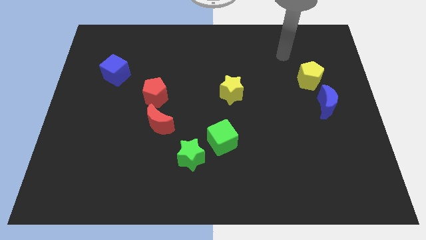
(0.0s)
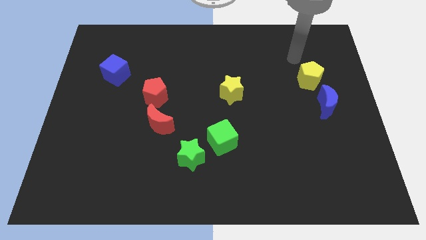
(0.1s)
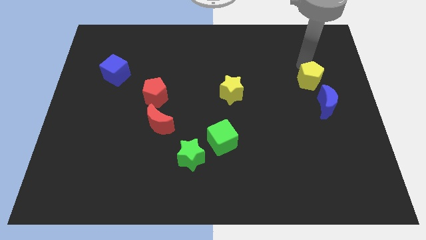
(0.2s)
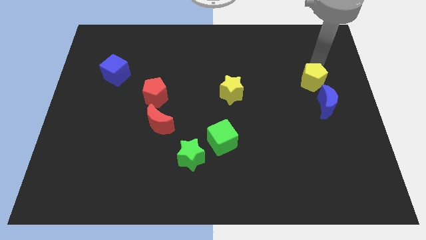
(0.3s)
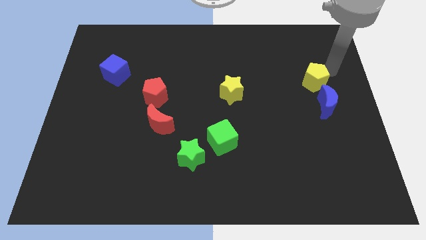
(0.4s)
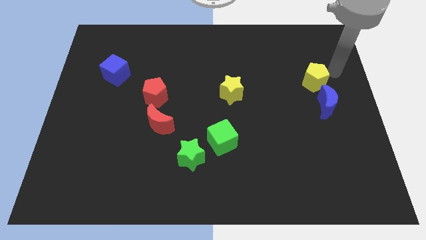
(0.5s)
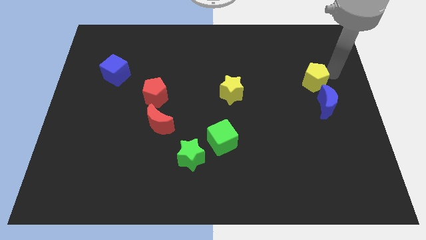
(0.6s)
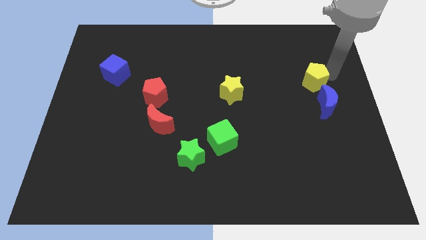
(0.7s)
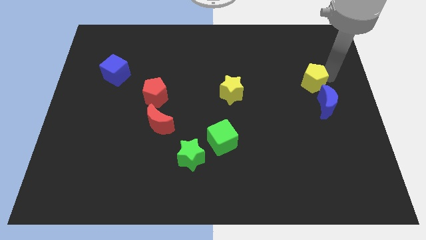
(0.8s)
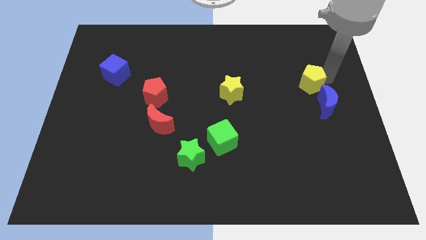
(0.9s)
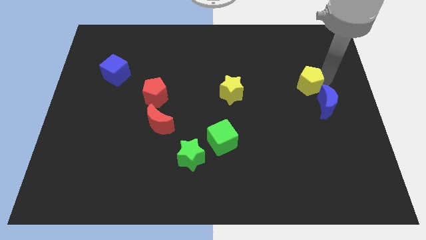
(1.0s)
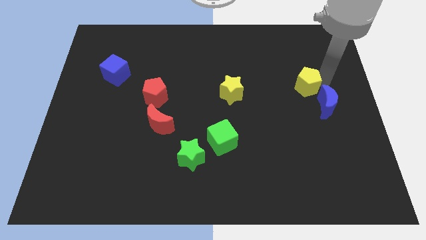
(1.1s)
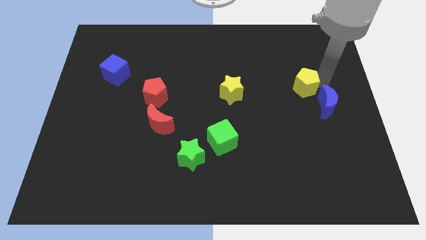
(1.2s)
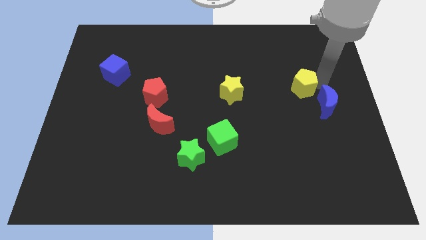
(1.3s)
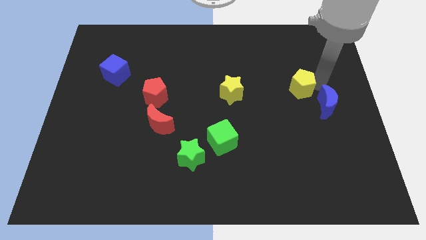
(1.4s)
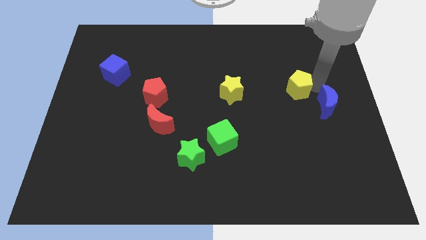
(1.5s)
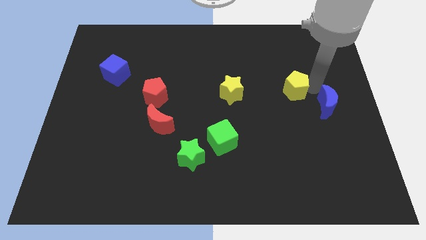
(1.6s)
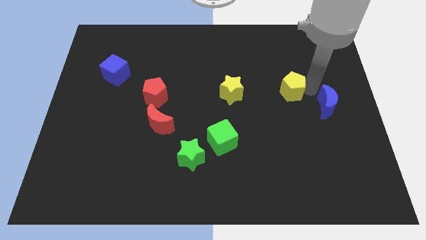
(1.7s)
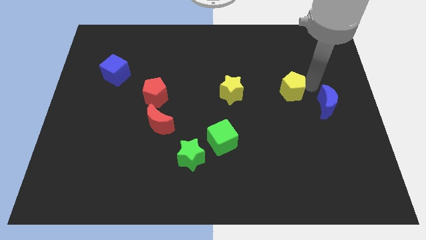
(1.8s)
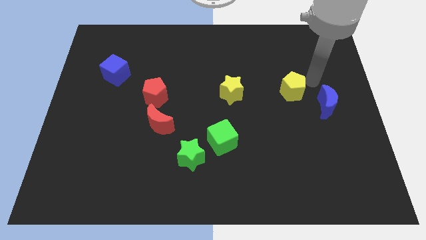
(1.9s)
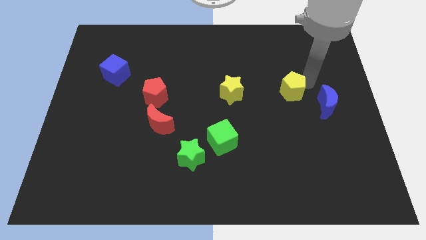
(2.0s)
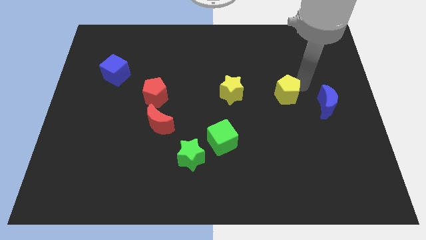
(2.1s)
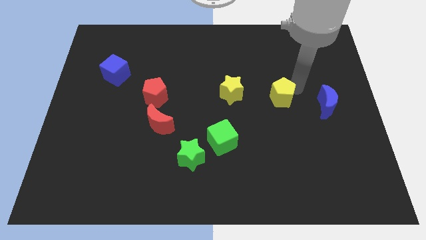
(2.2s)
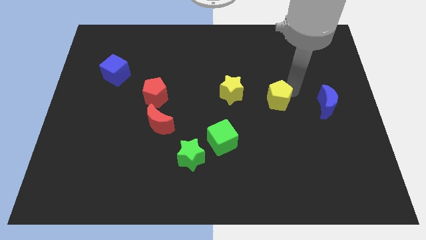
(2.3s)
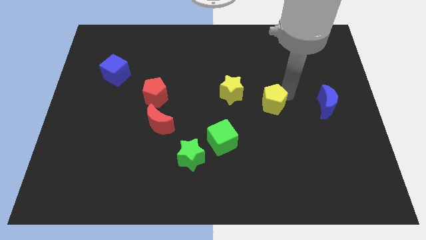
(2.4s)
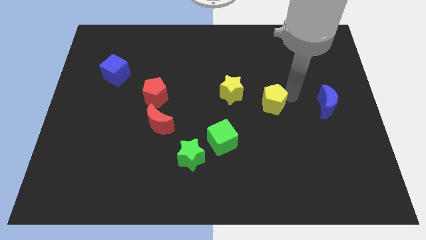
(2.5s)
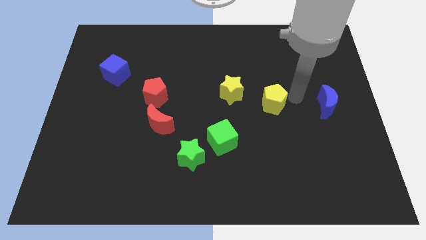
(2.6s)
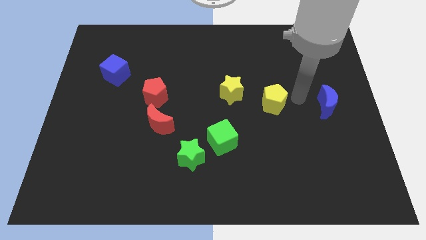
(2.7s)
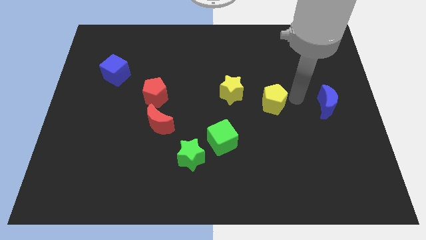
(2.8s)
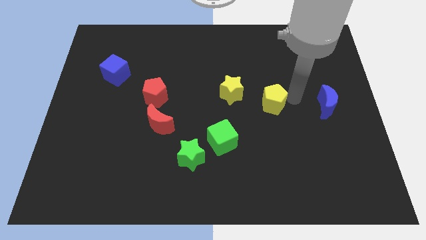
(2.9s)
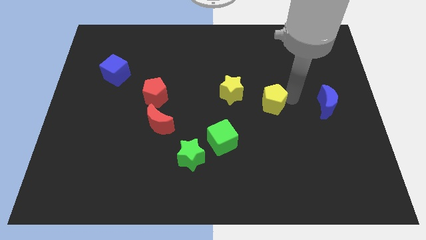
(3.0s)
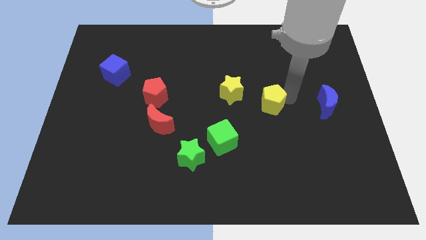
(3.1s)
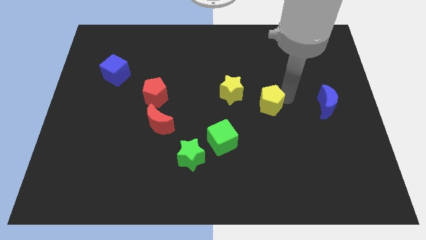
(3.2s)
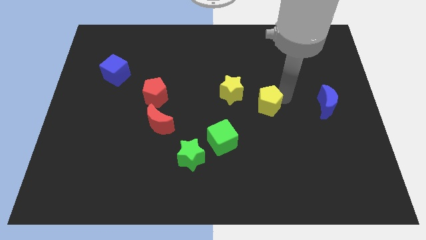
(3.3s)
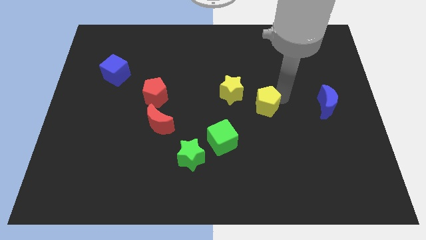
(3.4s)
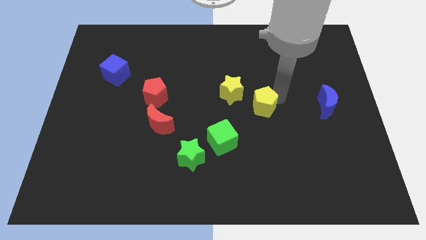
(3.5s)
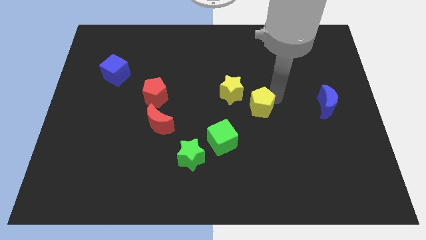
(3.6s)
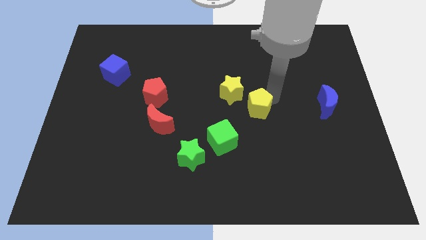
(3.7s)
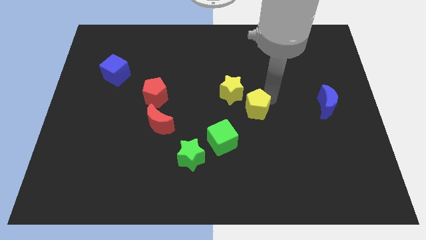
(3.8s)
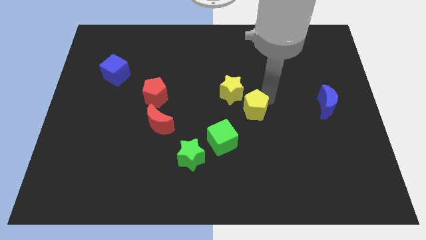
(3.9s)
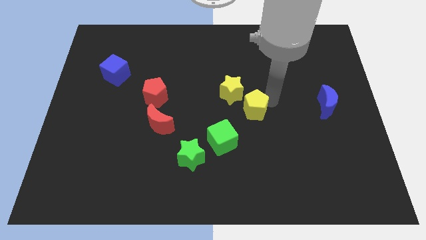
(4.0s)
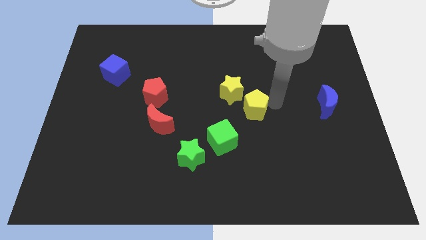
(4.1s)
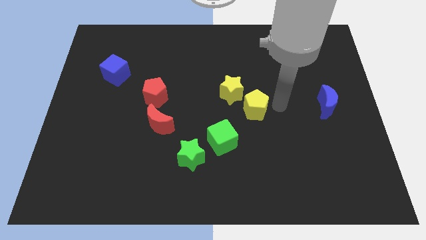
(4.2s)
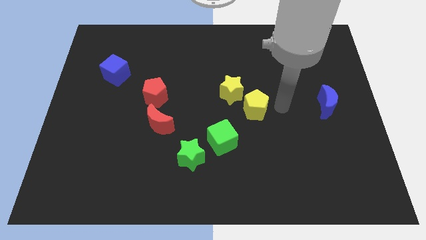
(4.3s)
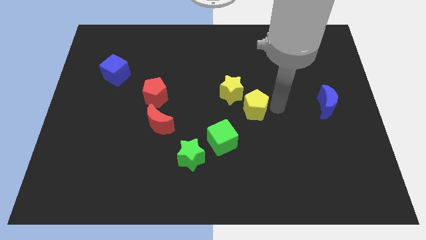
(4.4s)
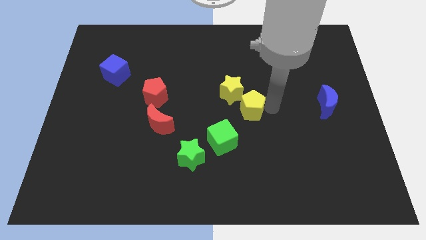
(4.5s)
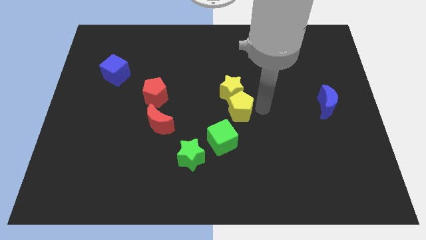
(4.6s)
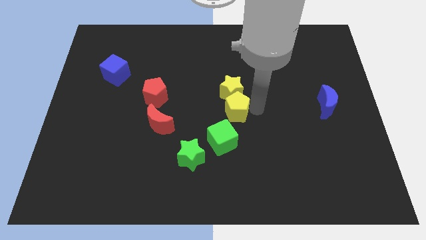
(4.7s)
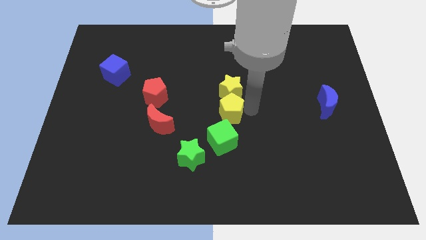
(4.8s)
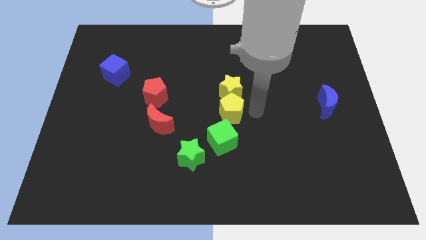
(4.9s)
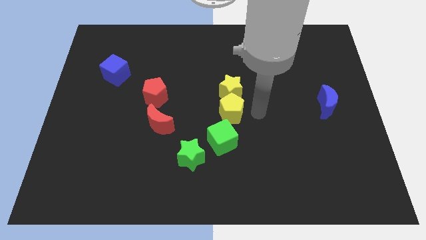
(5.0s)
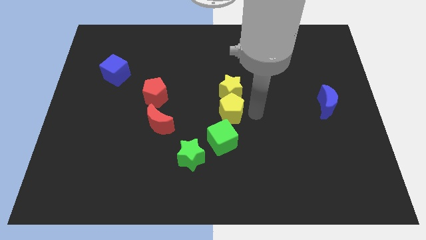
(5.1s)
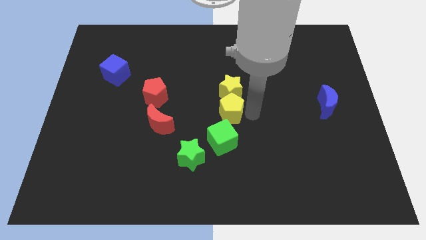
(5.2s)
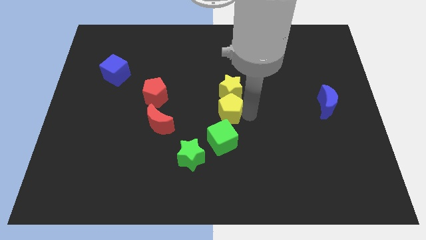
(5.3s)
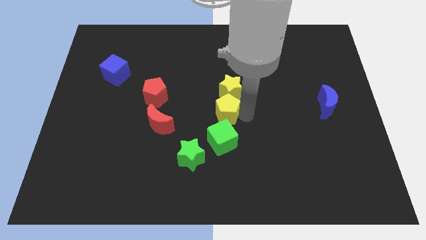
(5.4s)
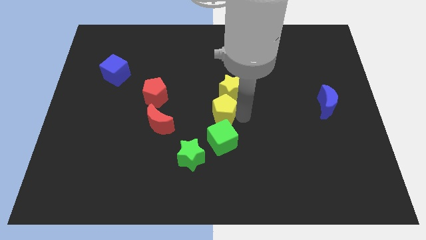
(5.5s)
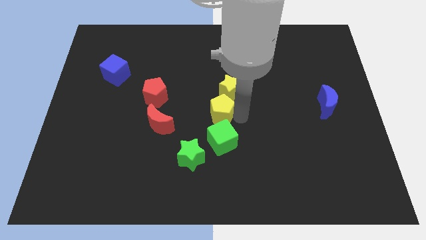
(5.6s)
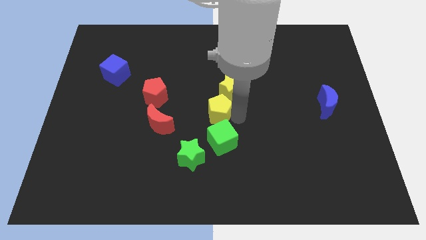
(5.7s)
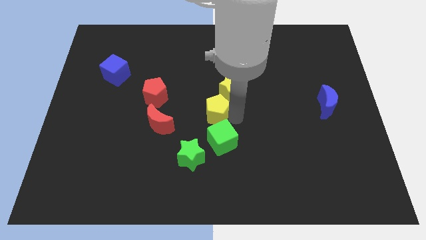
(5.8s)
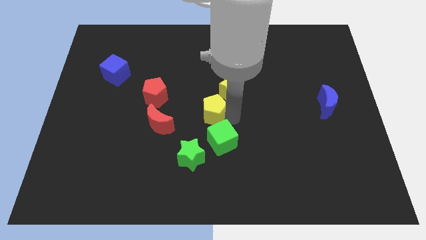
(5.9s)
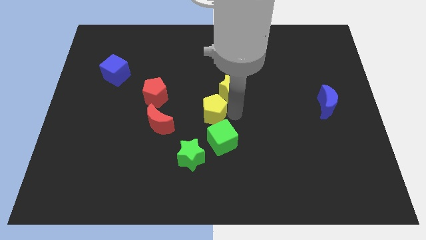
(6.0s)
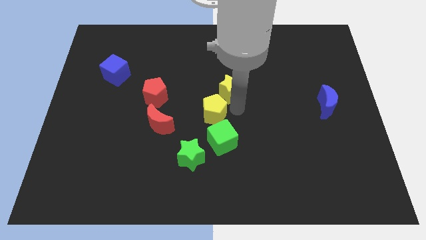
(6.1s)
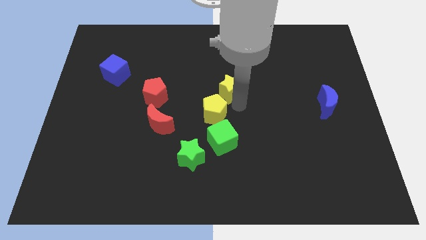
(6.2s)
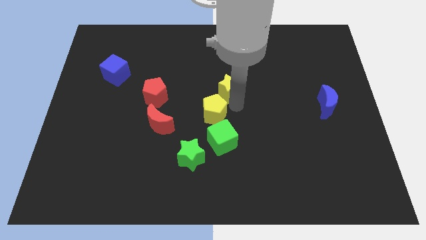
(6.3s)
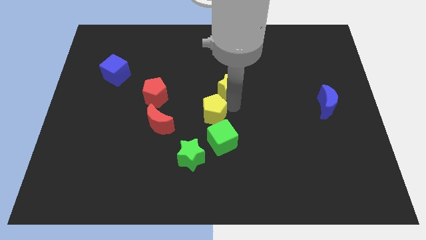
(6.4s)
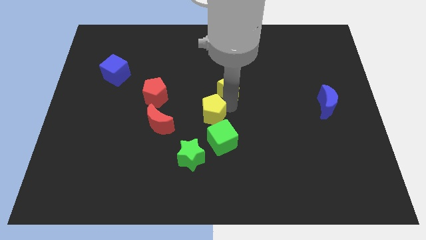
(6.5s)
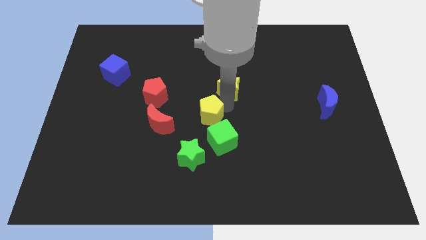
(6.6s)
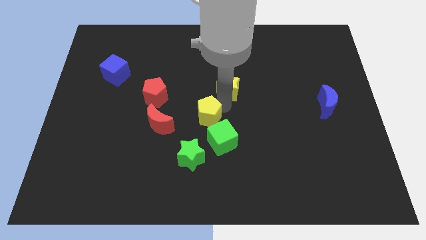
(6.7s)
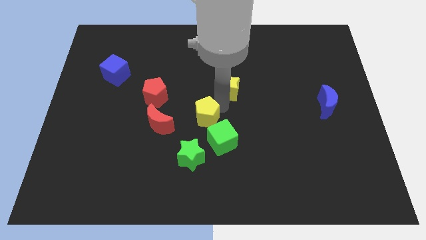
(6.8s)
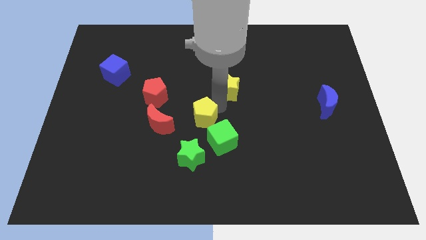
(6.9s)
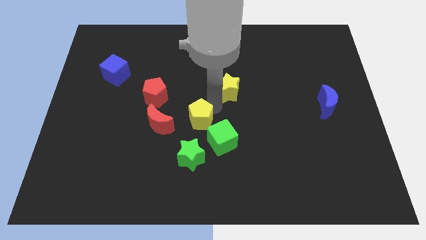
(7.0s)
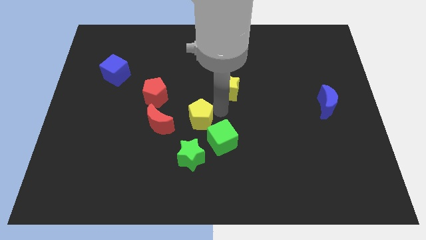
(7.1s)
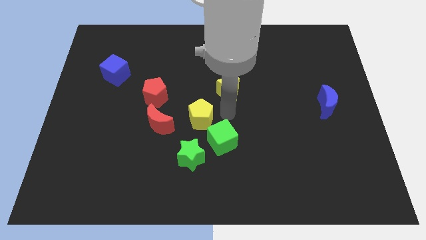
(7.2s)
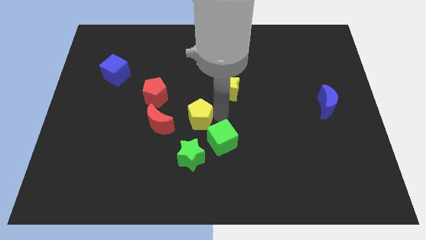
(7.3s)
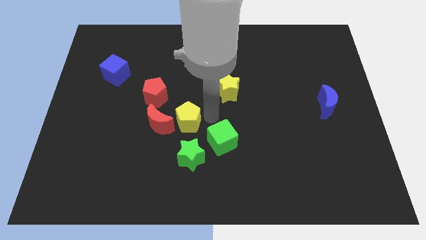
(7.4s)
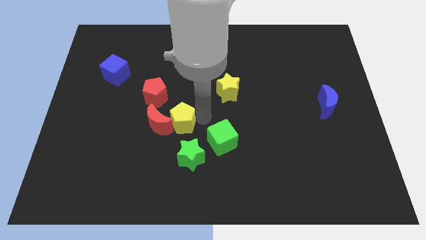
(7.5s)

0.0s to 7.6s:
push the yellow pentagon towards the red moon

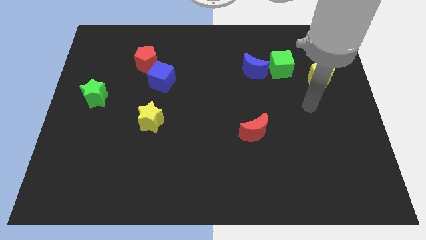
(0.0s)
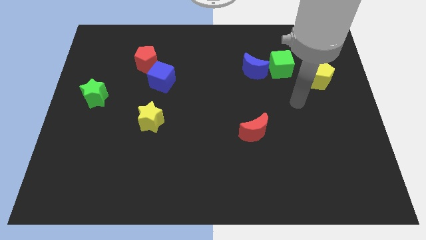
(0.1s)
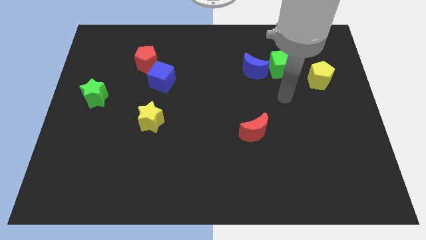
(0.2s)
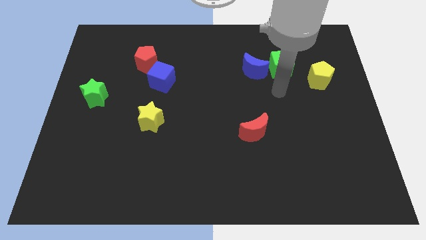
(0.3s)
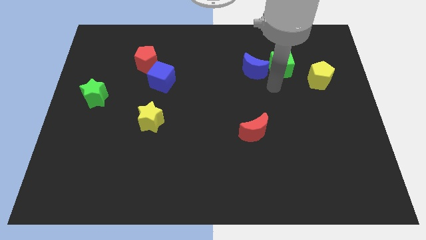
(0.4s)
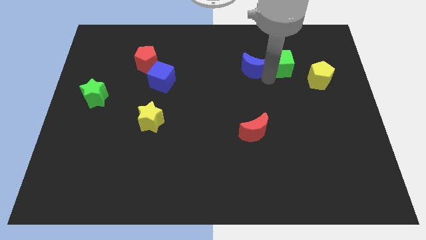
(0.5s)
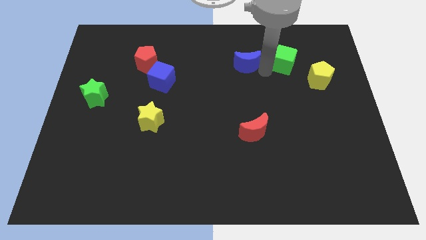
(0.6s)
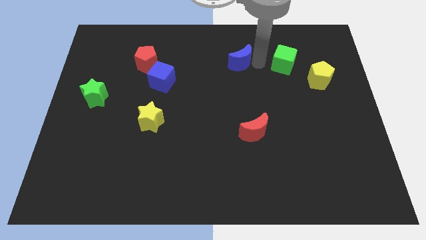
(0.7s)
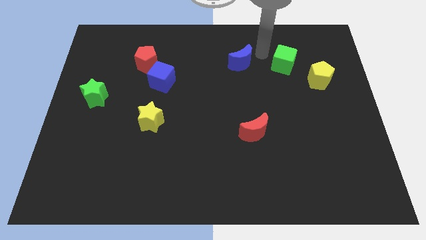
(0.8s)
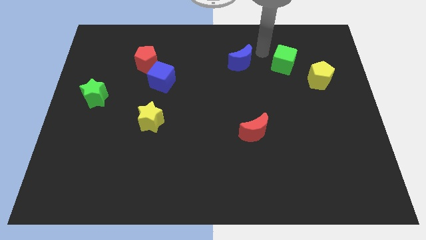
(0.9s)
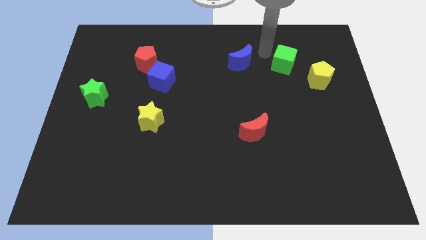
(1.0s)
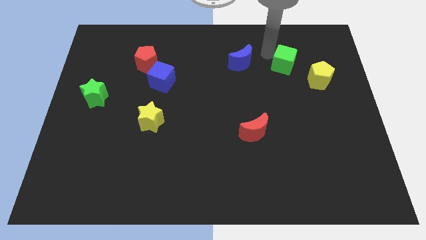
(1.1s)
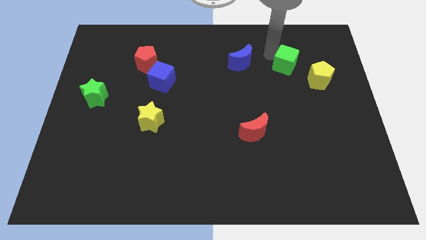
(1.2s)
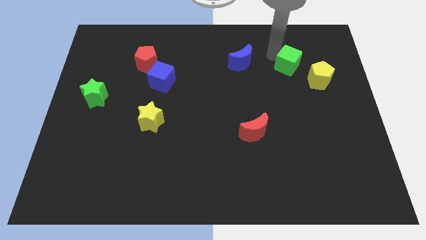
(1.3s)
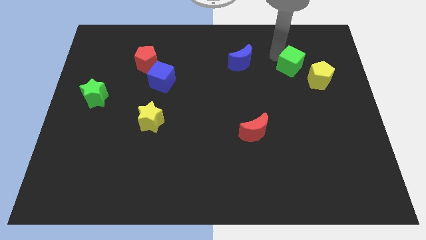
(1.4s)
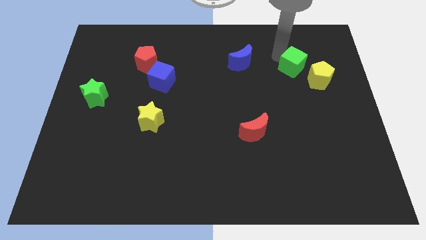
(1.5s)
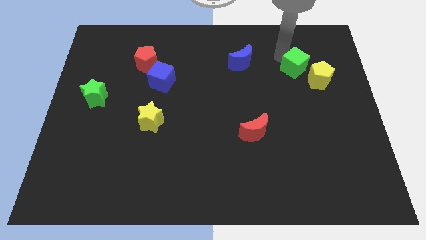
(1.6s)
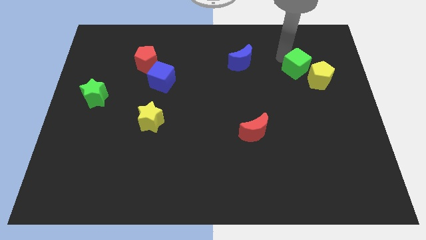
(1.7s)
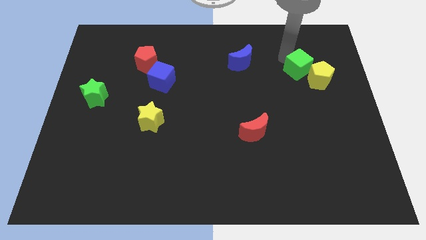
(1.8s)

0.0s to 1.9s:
put the green cube close to the yellow pentagon
